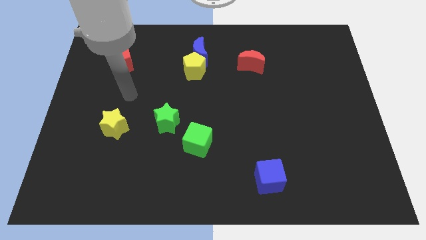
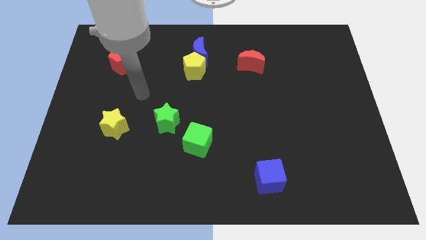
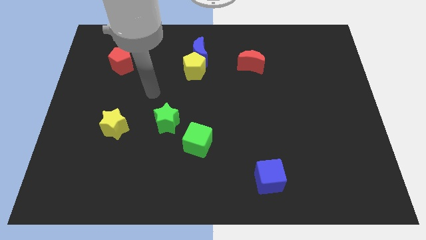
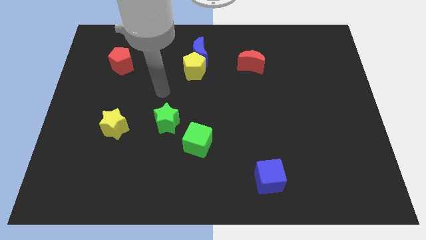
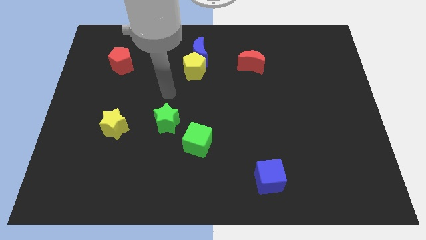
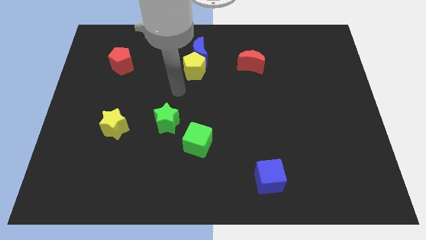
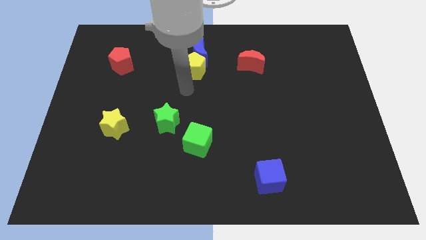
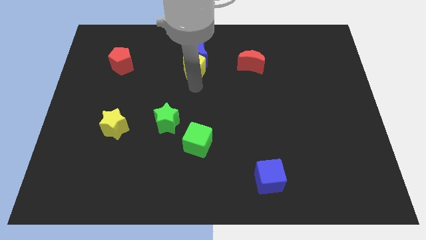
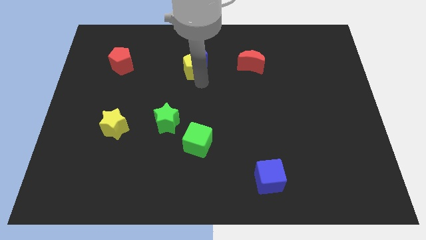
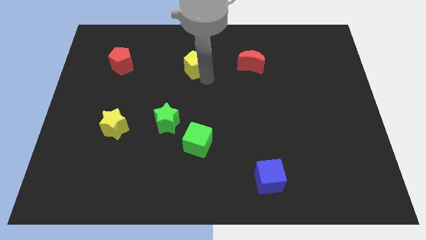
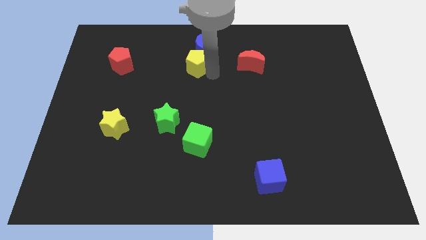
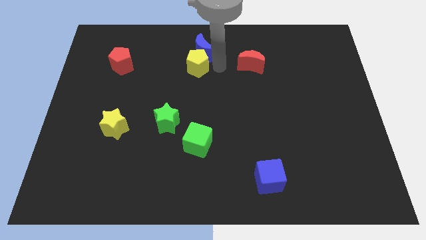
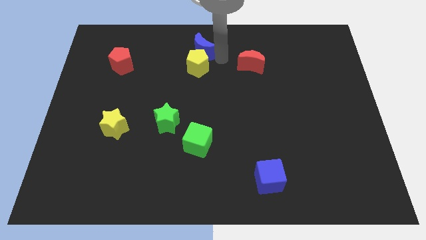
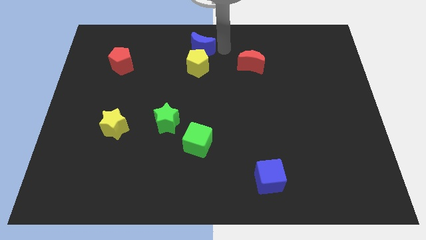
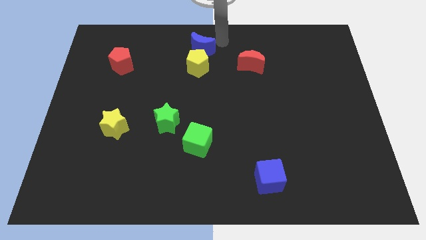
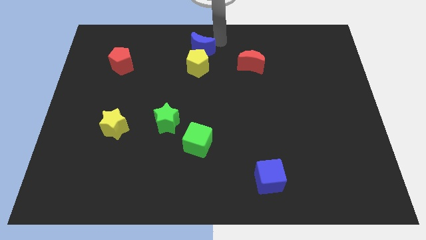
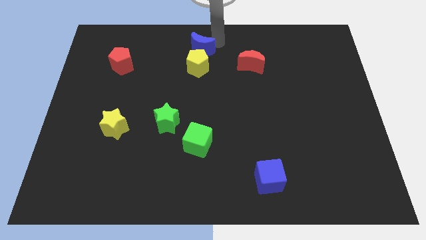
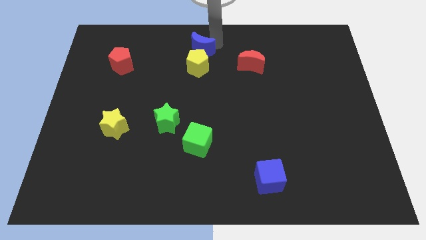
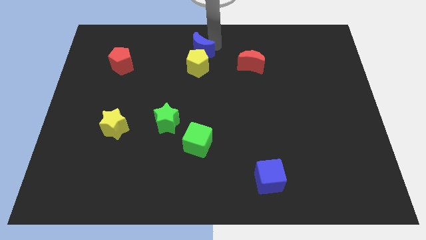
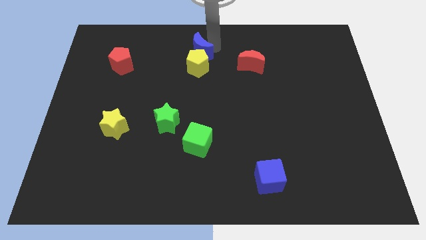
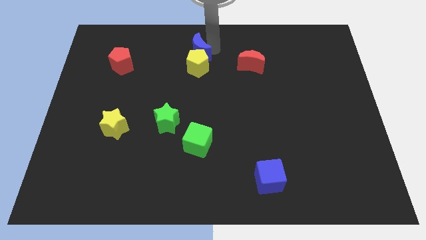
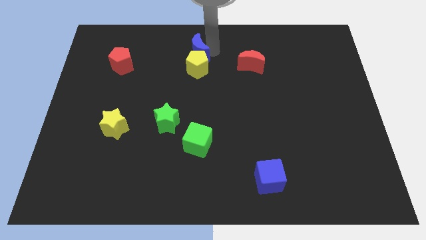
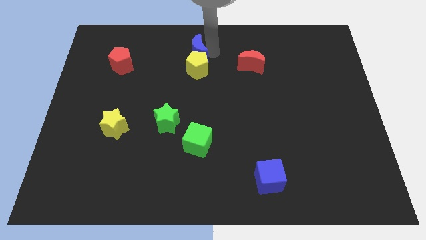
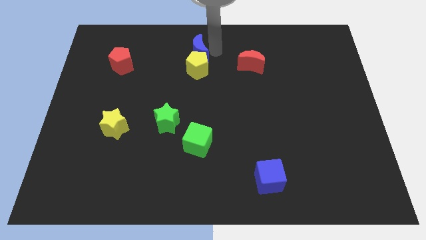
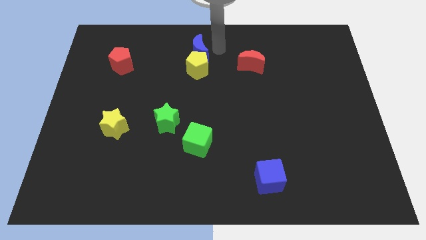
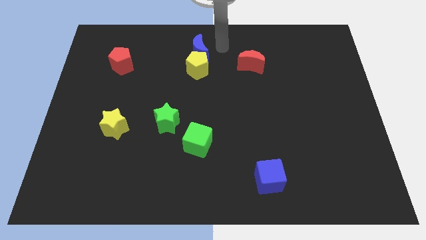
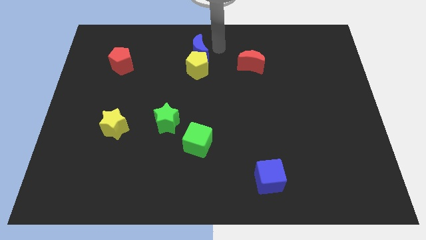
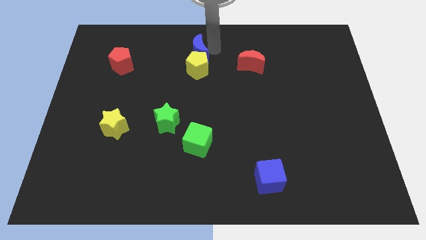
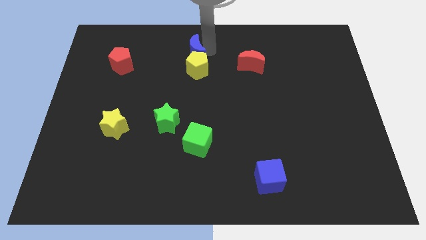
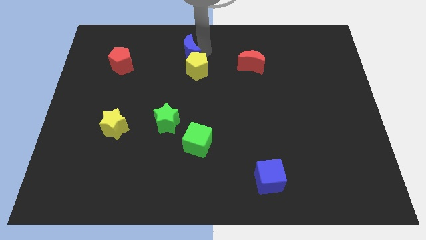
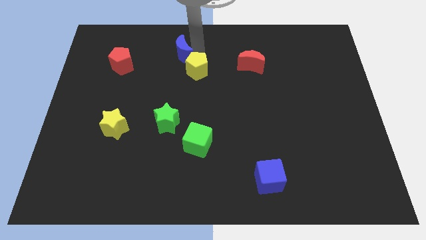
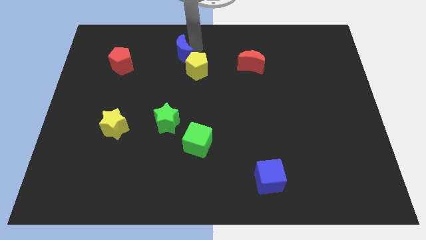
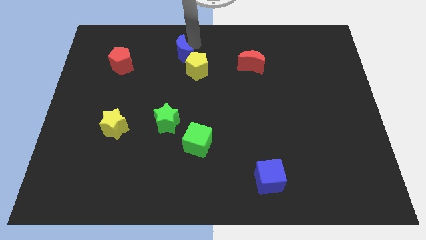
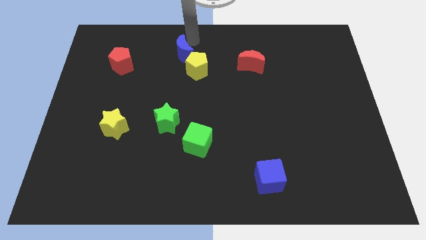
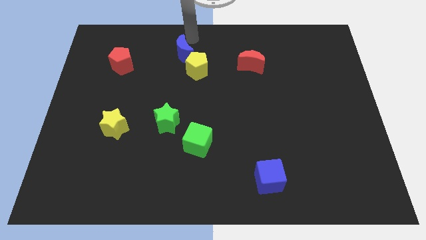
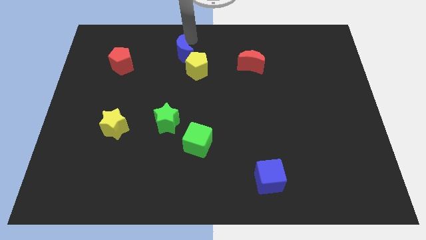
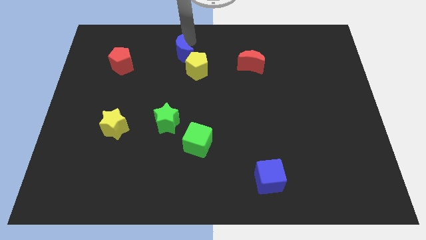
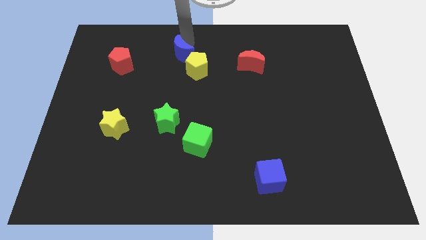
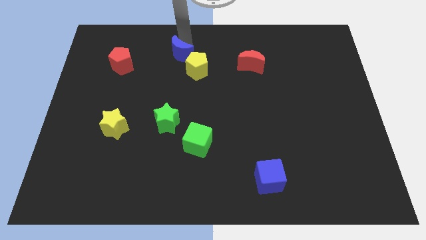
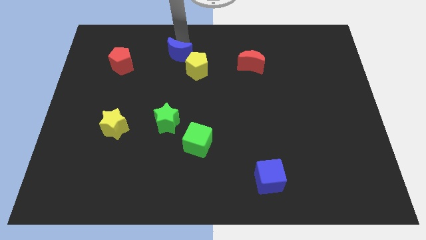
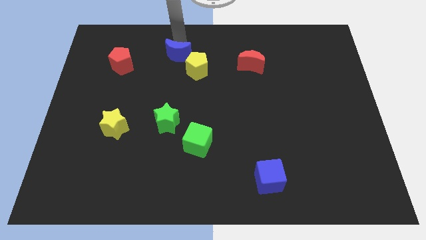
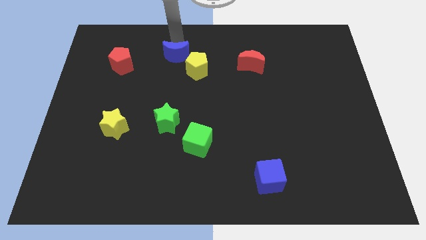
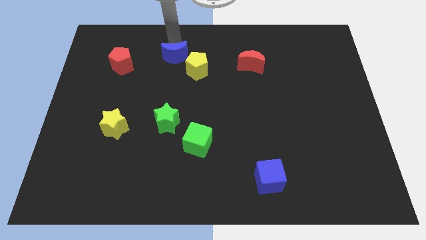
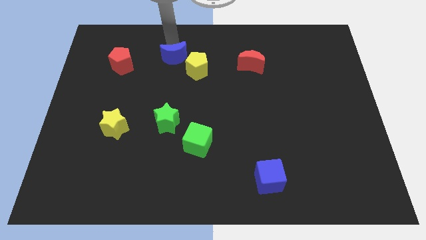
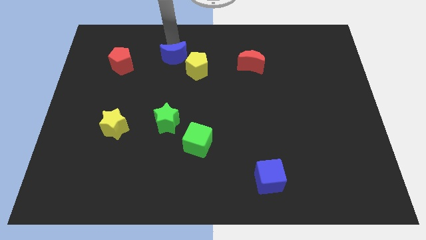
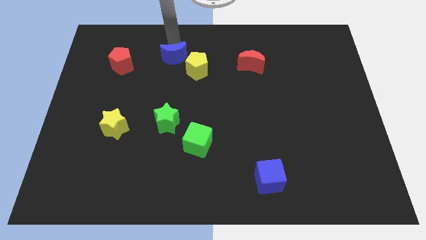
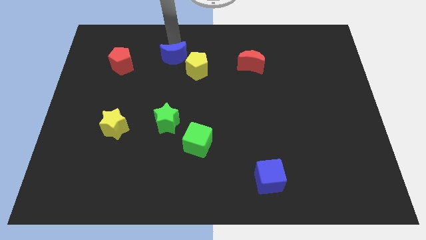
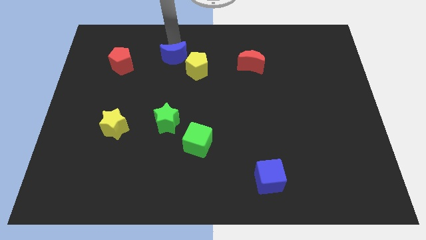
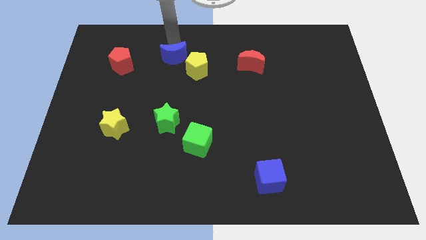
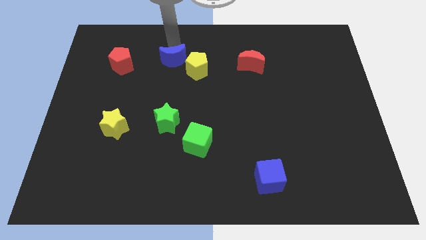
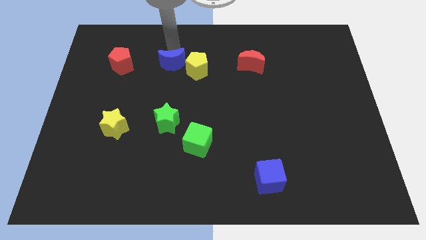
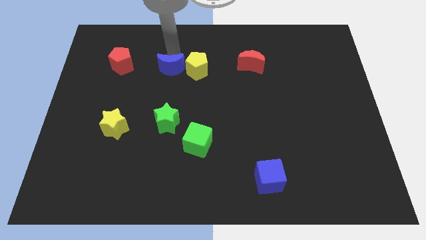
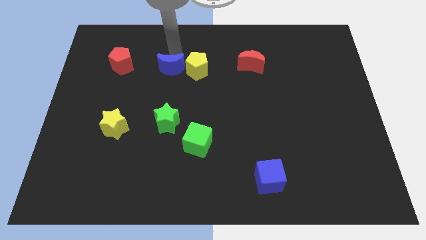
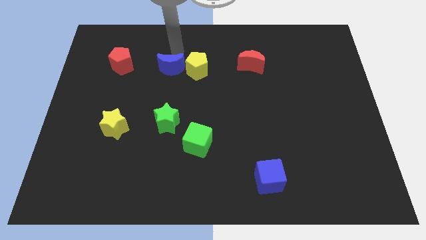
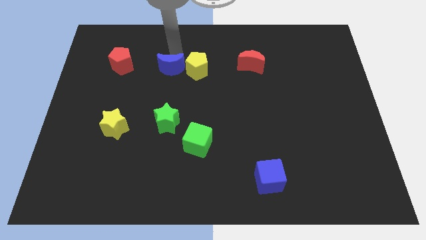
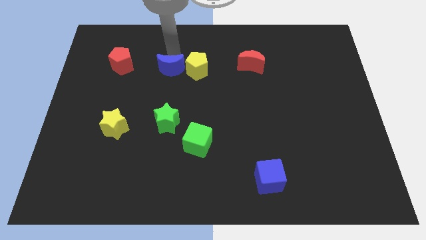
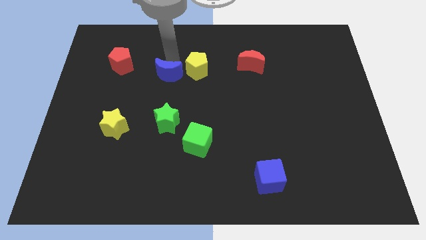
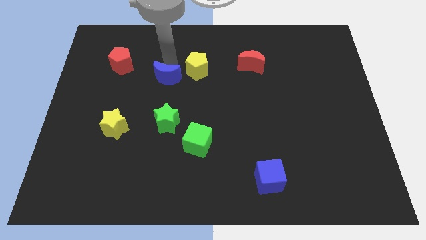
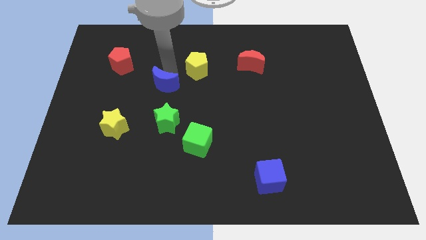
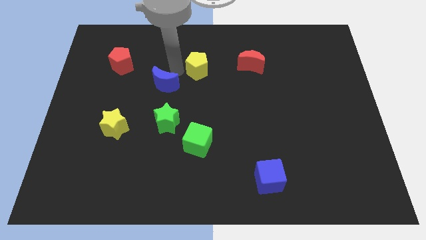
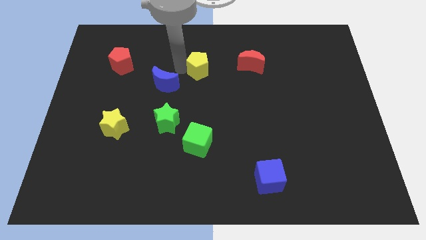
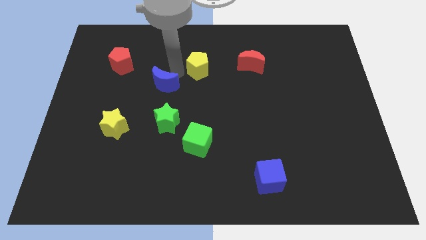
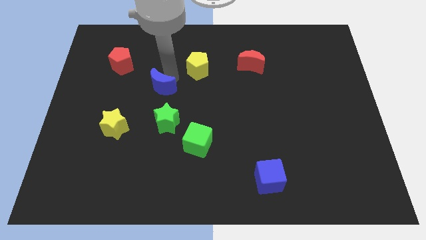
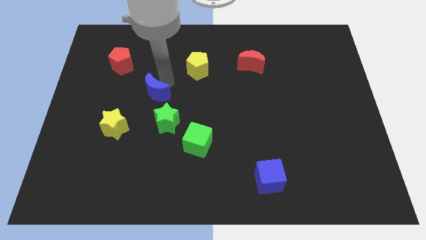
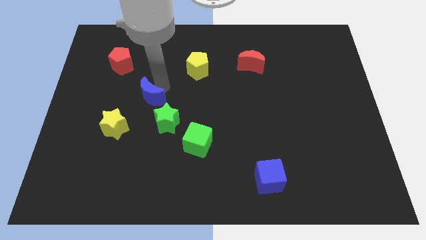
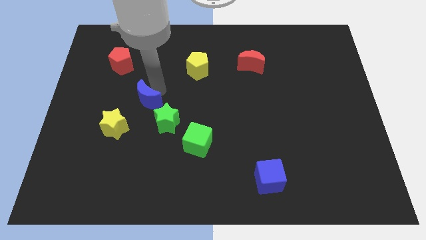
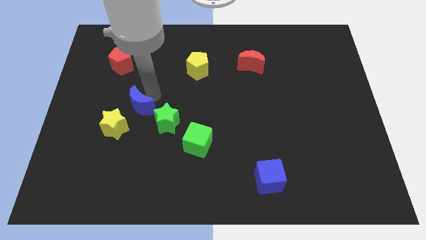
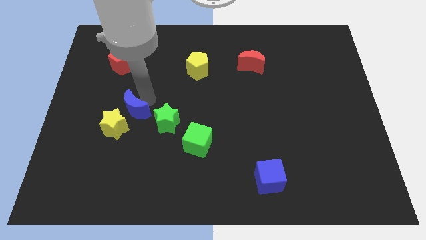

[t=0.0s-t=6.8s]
slide the blue moon to the yellow star

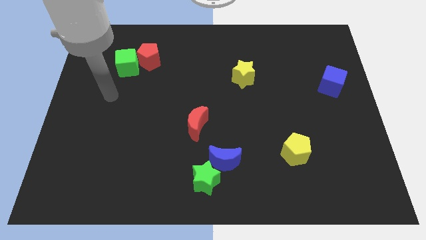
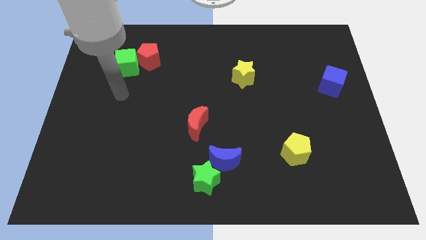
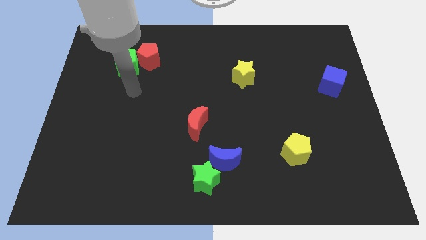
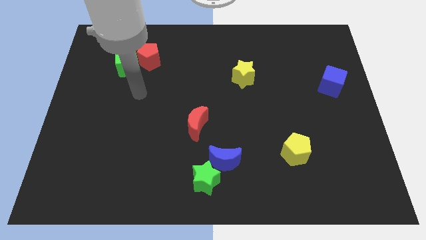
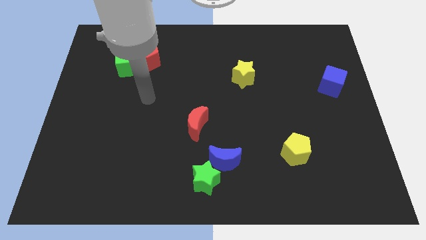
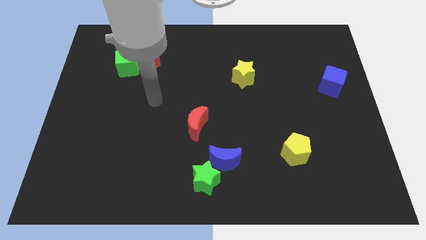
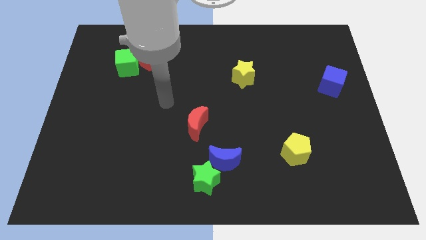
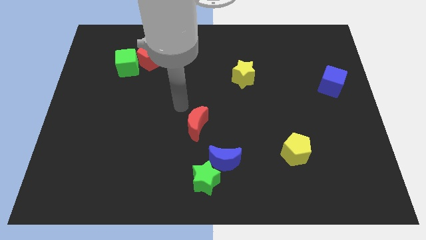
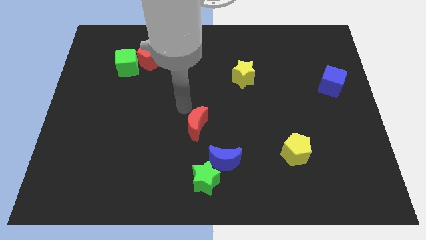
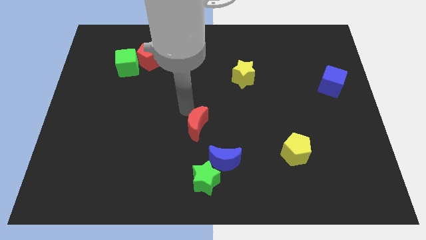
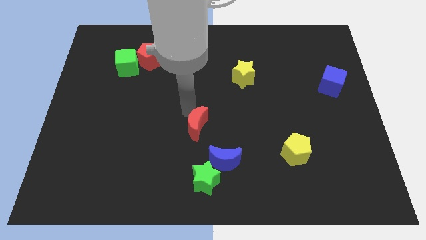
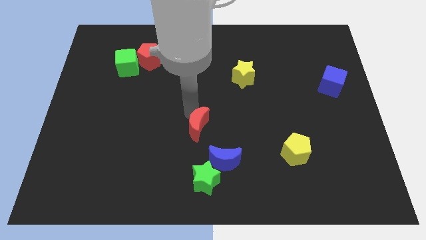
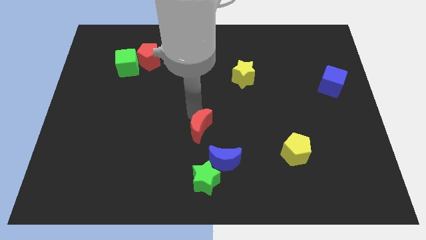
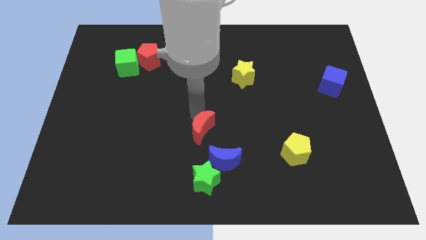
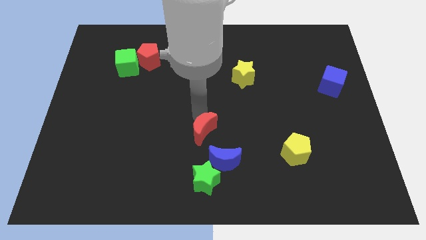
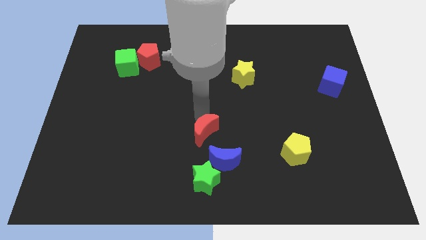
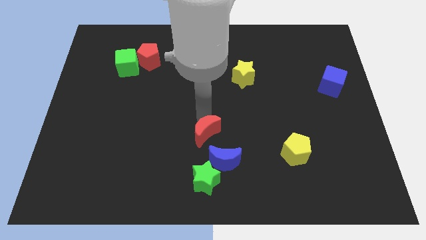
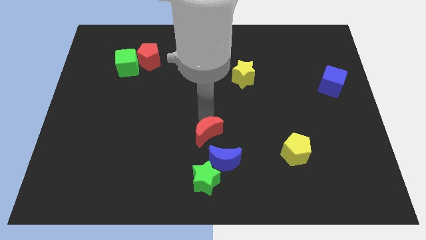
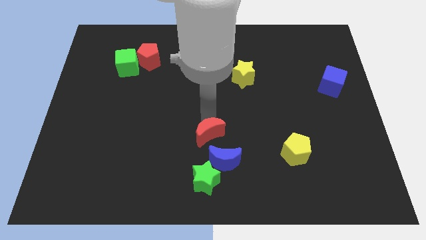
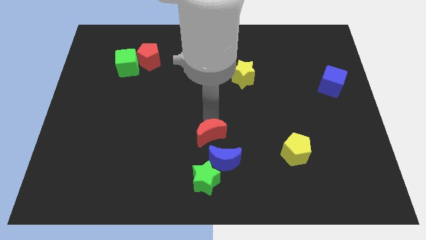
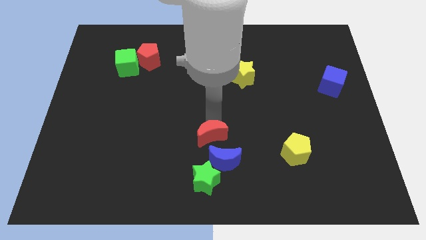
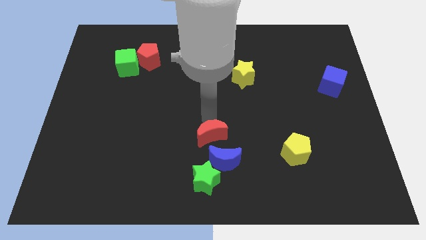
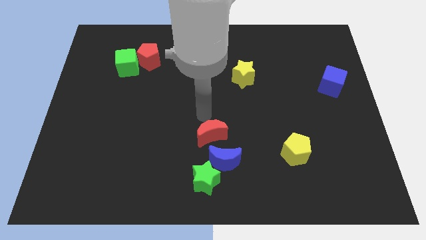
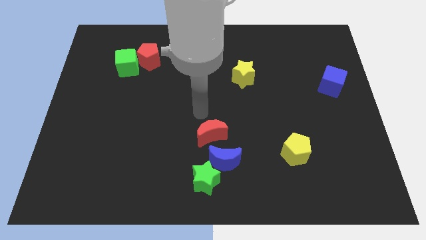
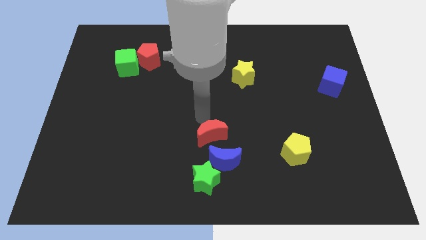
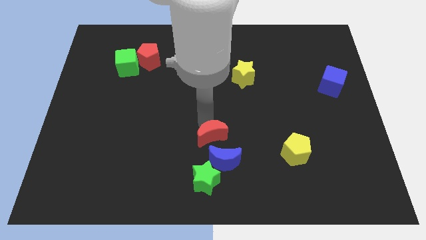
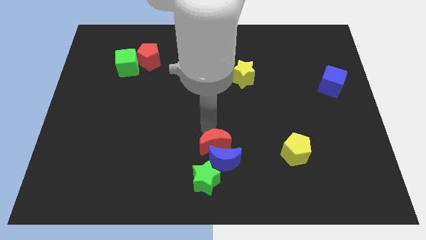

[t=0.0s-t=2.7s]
push the red moon towards the blue moon
